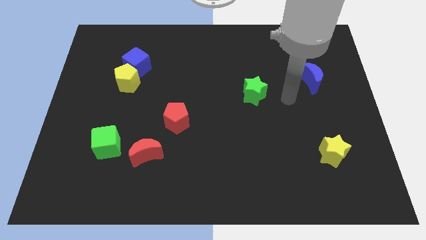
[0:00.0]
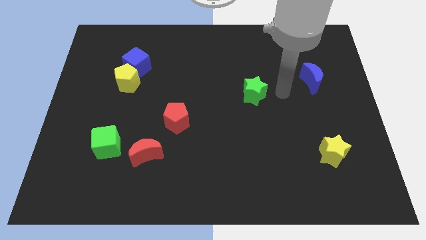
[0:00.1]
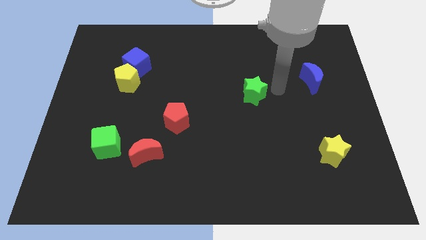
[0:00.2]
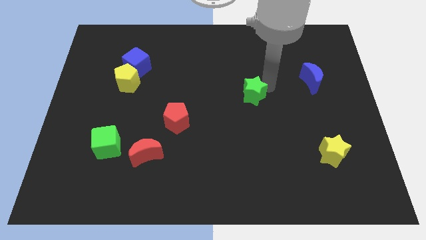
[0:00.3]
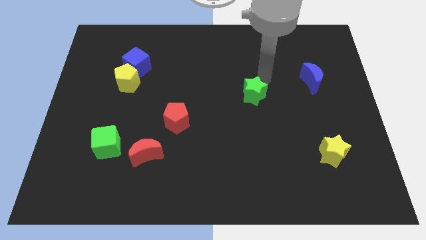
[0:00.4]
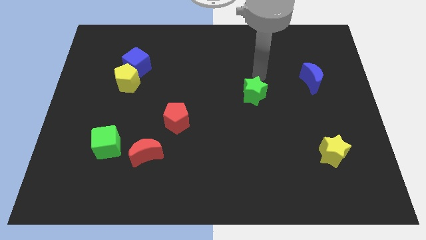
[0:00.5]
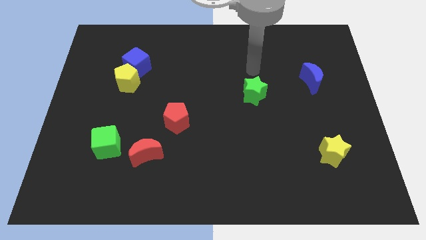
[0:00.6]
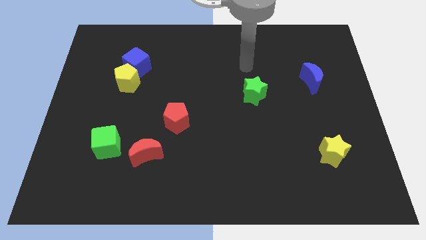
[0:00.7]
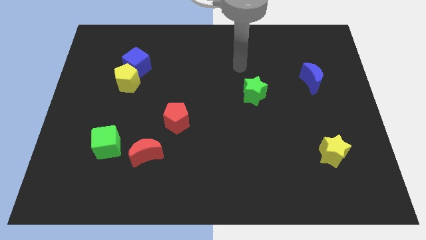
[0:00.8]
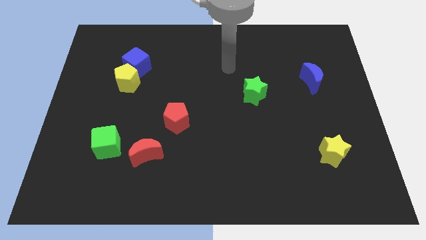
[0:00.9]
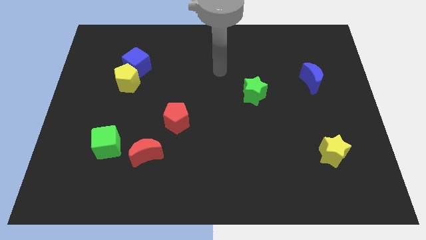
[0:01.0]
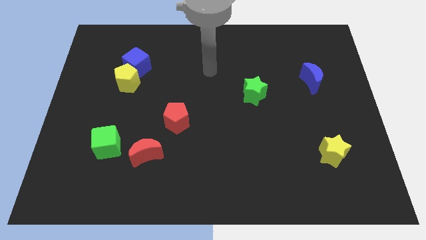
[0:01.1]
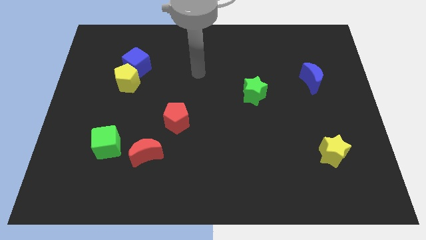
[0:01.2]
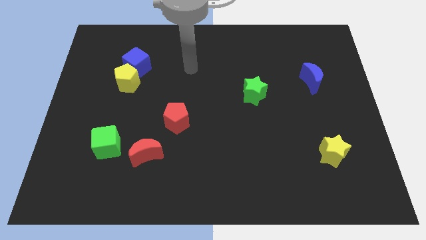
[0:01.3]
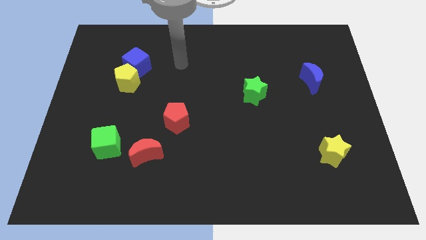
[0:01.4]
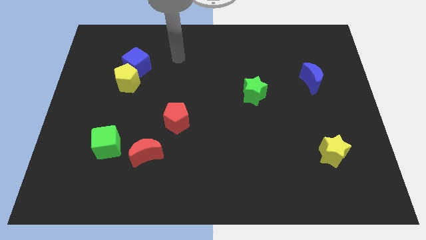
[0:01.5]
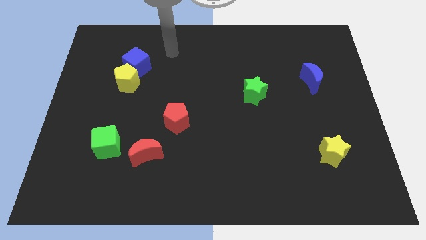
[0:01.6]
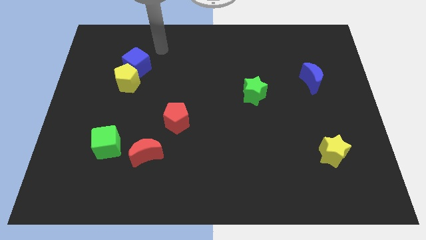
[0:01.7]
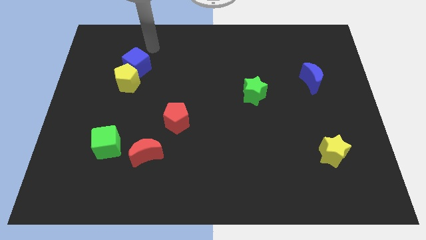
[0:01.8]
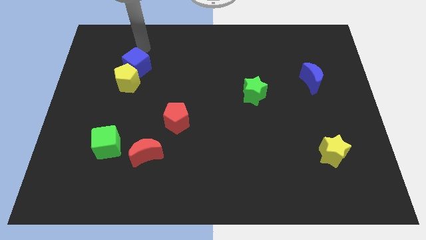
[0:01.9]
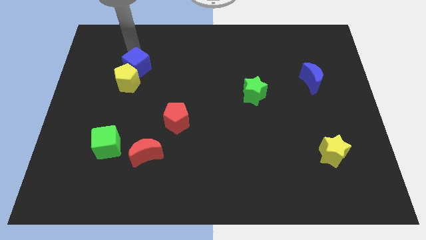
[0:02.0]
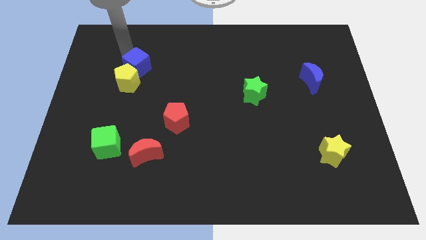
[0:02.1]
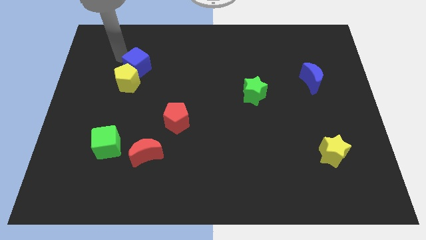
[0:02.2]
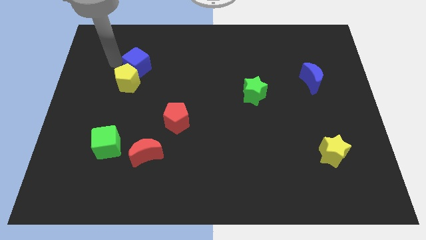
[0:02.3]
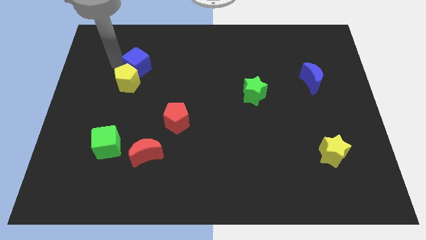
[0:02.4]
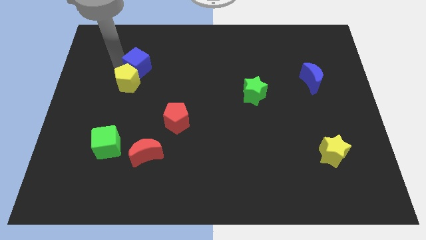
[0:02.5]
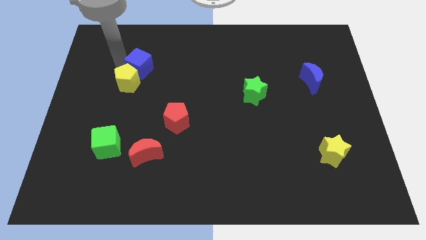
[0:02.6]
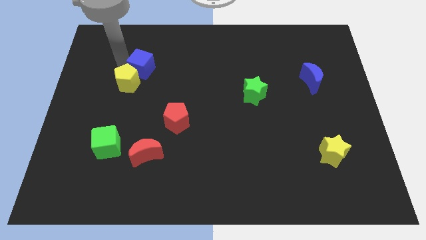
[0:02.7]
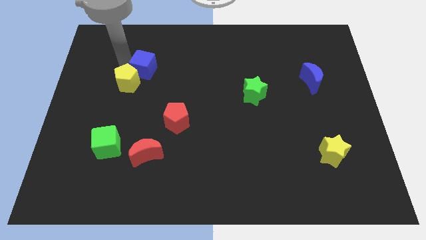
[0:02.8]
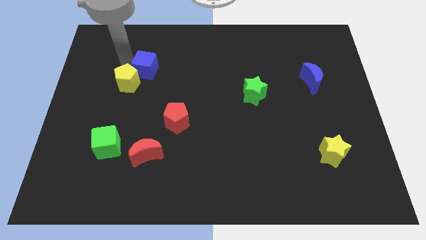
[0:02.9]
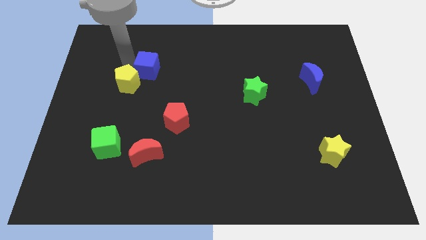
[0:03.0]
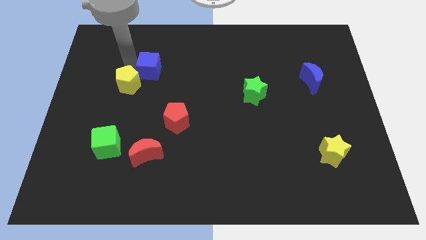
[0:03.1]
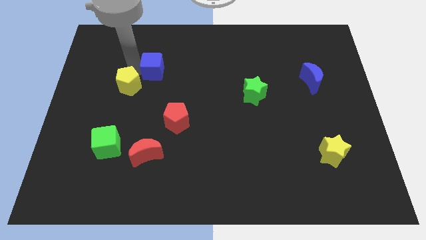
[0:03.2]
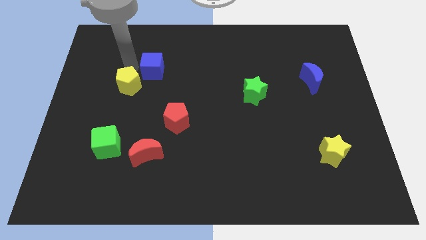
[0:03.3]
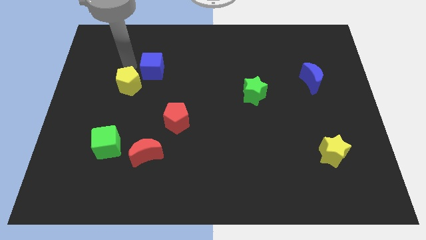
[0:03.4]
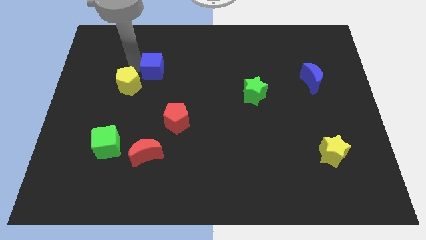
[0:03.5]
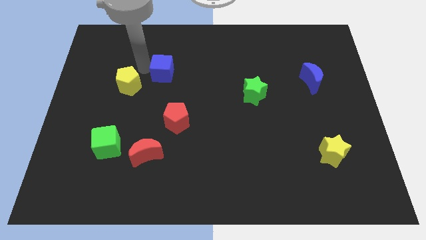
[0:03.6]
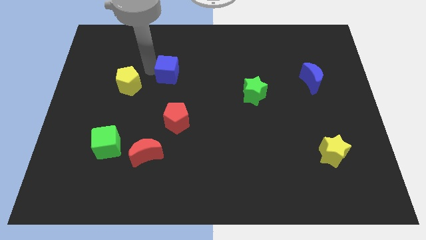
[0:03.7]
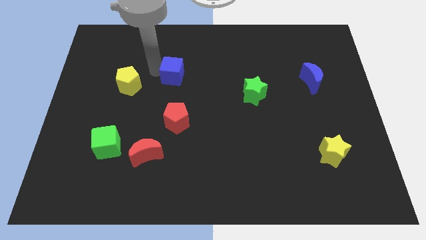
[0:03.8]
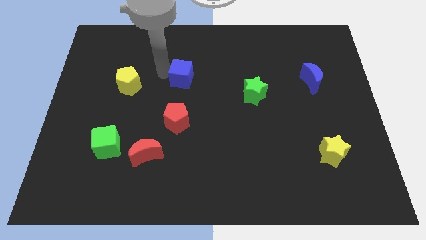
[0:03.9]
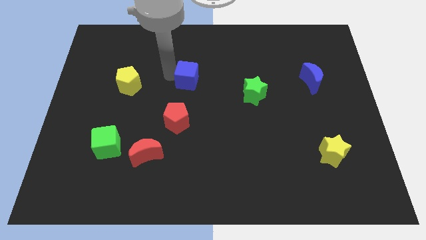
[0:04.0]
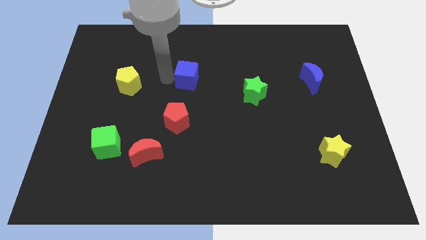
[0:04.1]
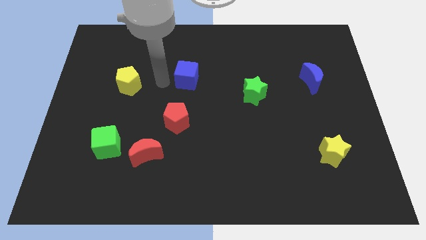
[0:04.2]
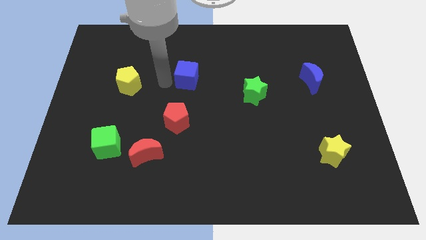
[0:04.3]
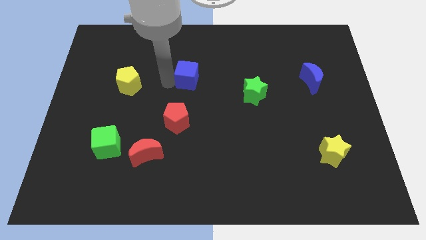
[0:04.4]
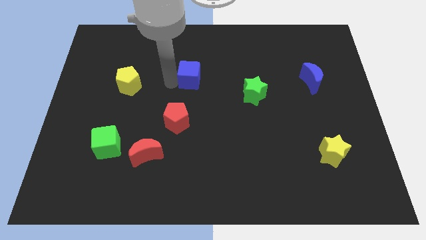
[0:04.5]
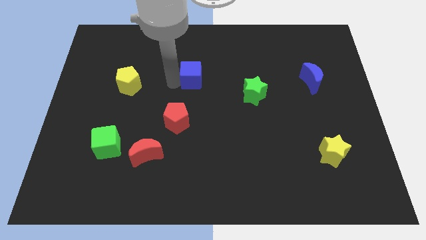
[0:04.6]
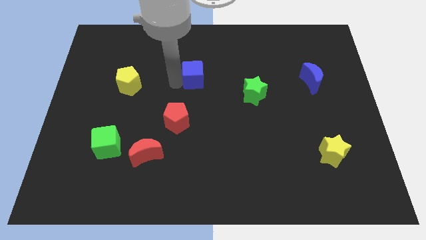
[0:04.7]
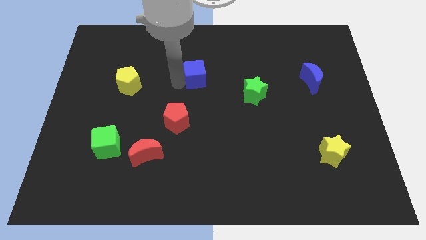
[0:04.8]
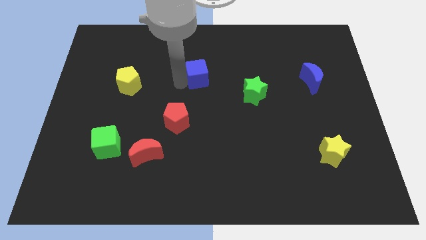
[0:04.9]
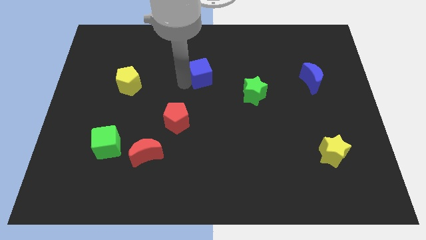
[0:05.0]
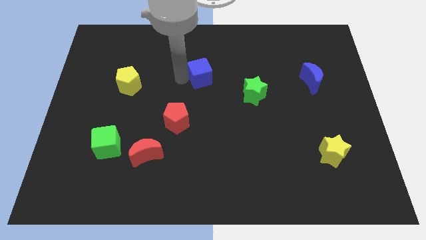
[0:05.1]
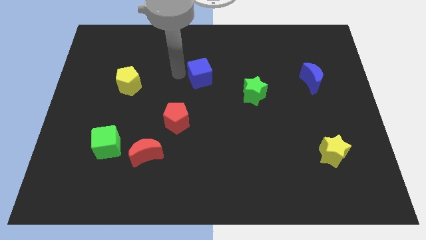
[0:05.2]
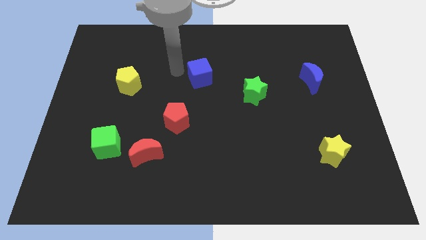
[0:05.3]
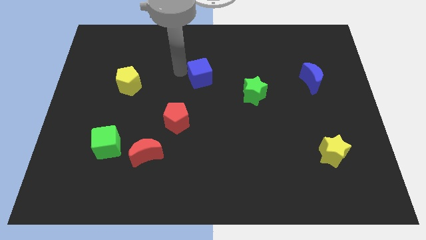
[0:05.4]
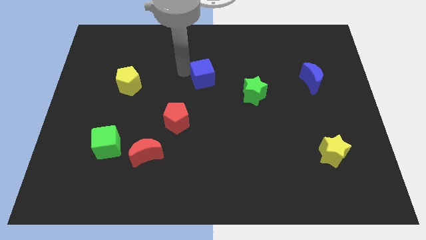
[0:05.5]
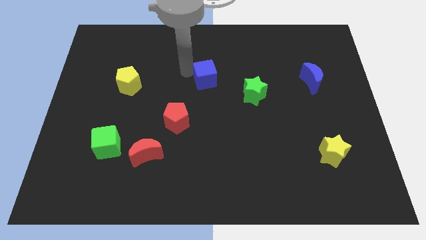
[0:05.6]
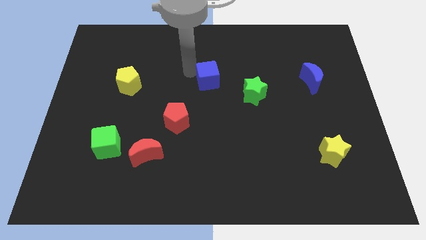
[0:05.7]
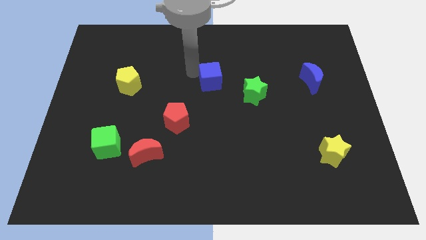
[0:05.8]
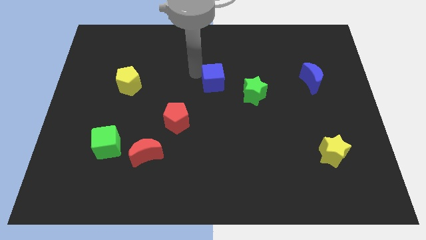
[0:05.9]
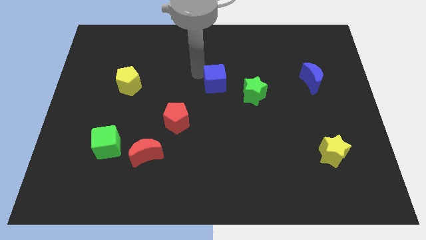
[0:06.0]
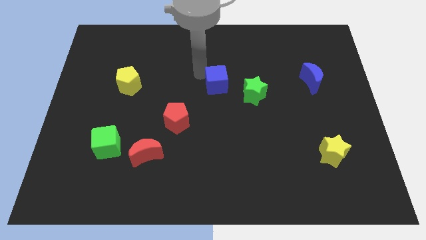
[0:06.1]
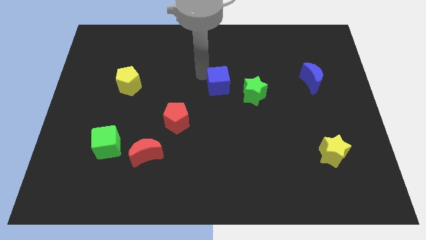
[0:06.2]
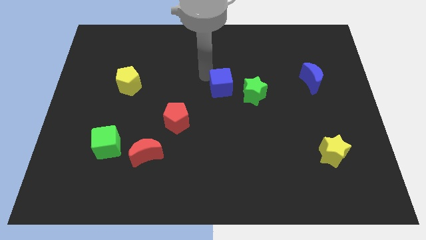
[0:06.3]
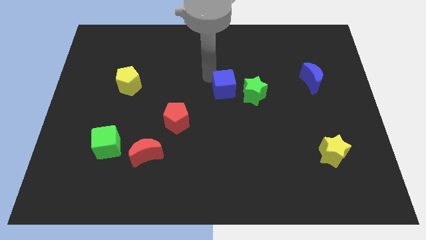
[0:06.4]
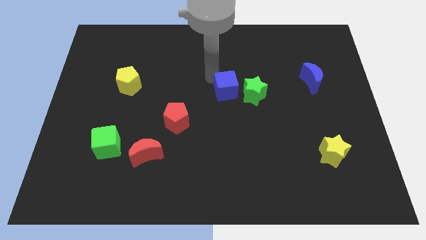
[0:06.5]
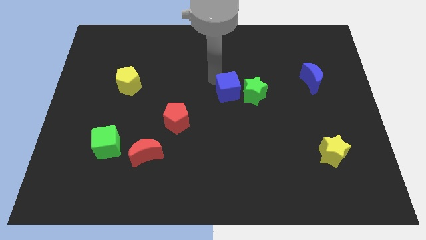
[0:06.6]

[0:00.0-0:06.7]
slide the blue cube next to the green star

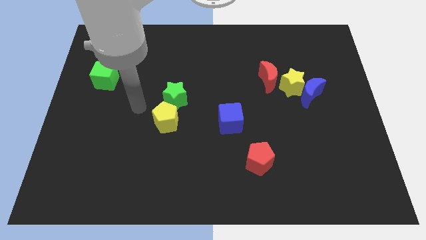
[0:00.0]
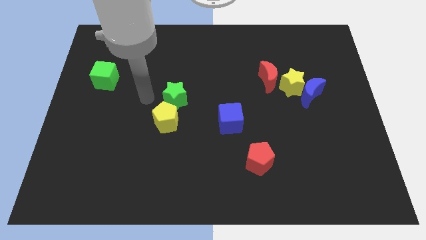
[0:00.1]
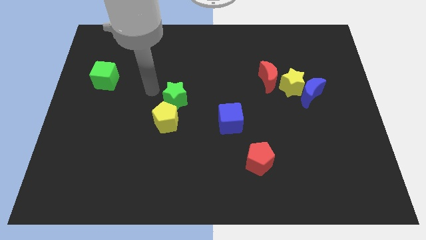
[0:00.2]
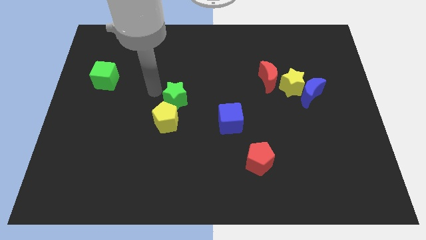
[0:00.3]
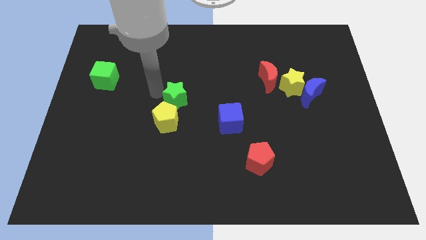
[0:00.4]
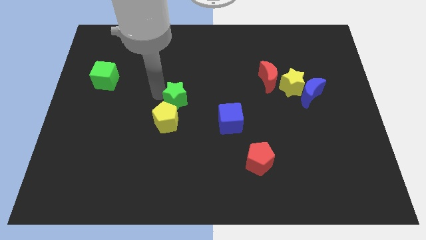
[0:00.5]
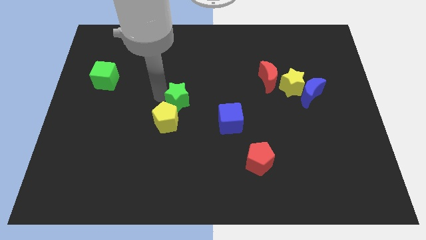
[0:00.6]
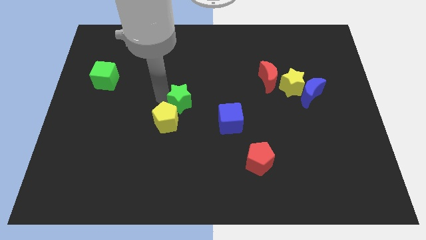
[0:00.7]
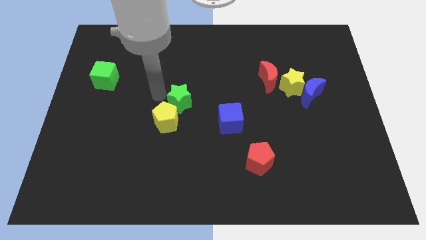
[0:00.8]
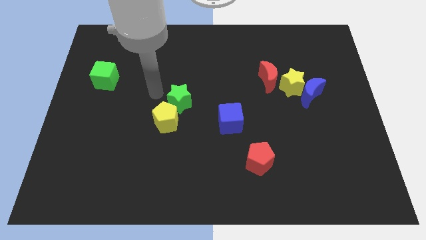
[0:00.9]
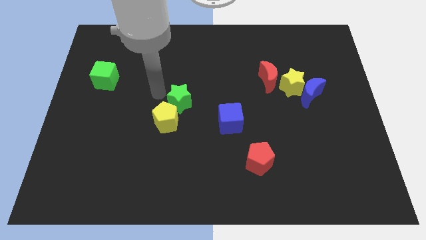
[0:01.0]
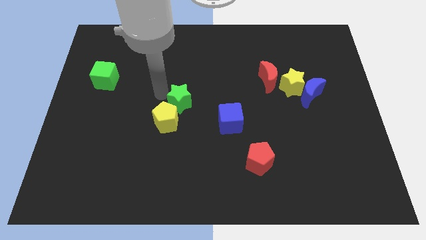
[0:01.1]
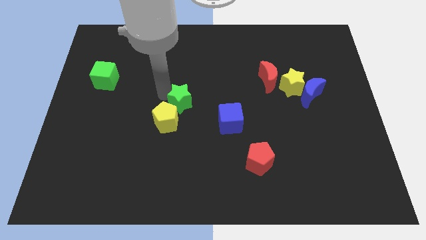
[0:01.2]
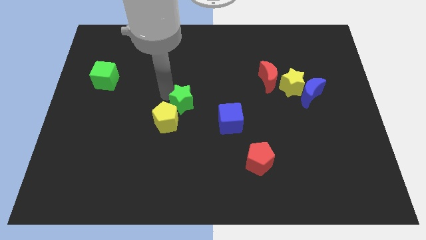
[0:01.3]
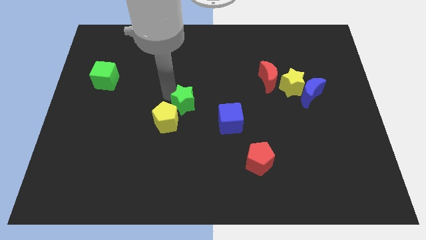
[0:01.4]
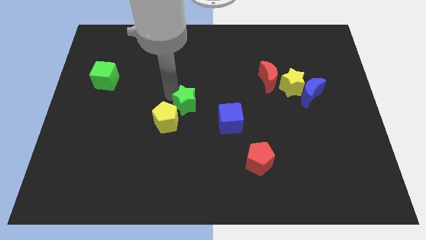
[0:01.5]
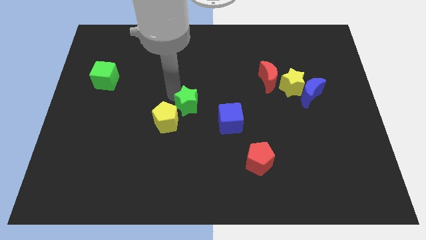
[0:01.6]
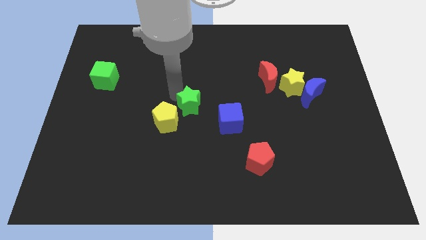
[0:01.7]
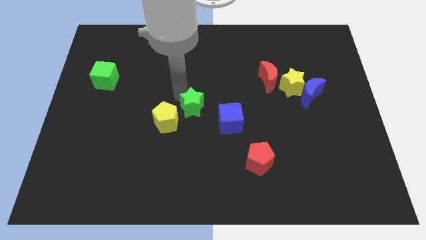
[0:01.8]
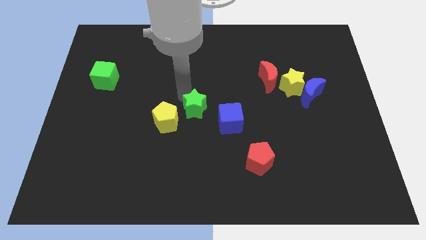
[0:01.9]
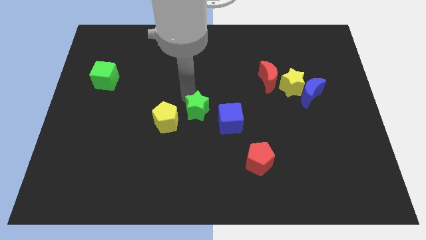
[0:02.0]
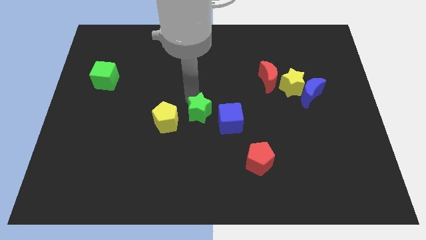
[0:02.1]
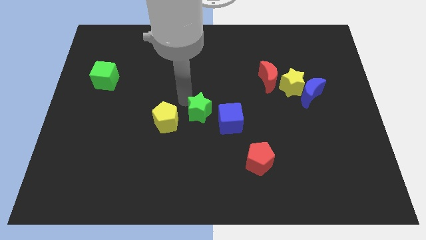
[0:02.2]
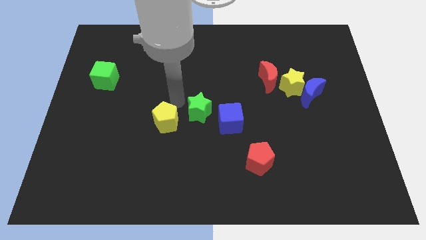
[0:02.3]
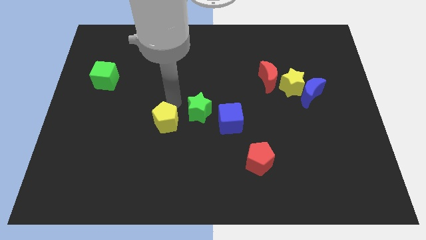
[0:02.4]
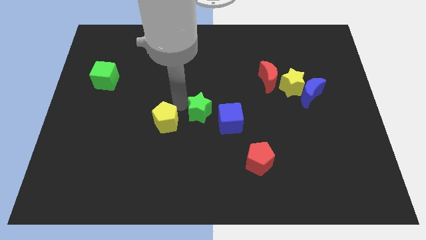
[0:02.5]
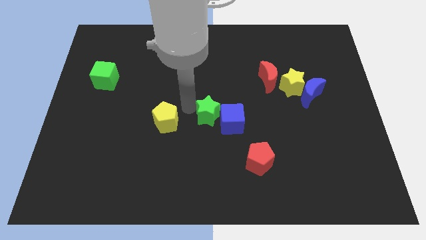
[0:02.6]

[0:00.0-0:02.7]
push the green star to the blue cube
